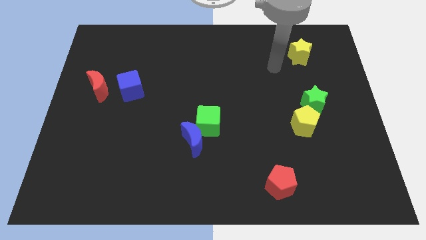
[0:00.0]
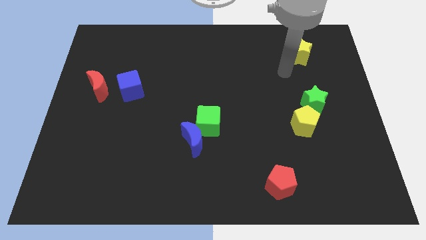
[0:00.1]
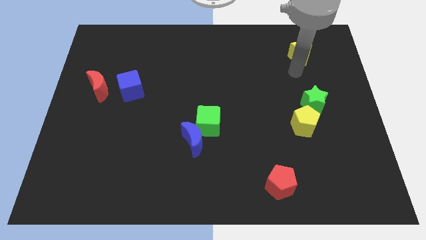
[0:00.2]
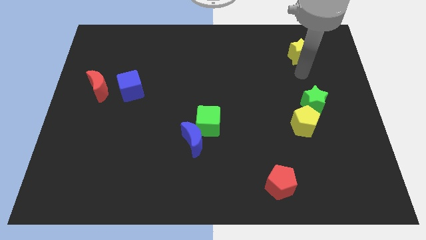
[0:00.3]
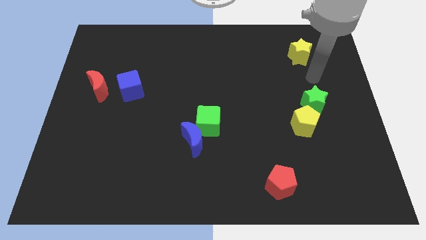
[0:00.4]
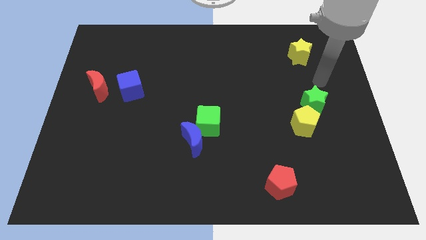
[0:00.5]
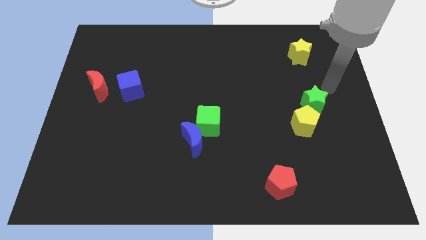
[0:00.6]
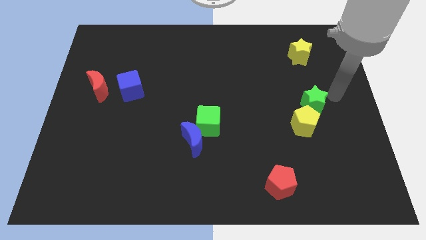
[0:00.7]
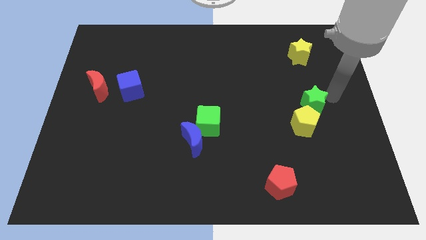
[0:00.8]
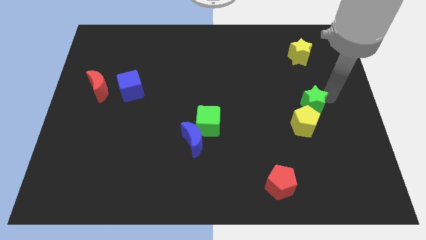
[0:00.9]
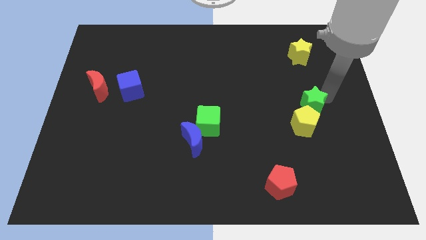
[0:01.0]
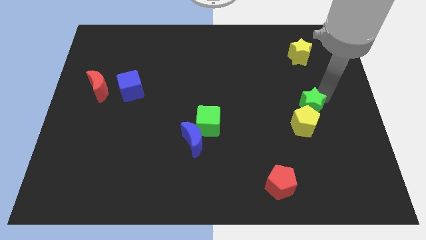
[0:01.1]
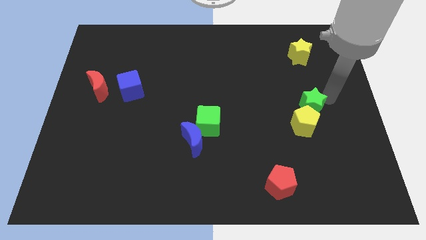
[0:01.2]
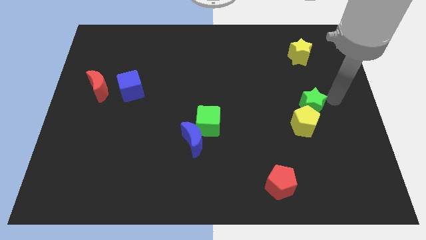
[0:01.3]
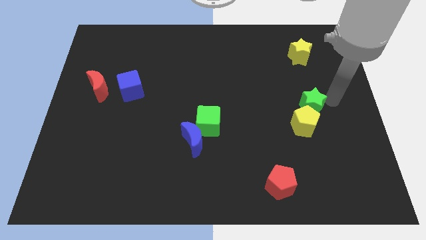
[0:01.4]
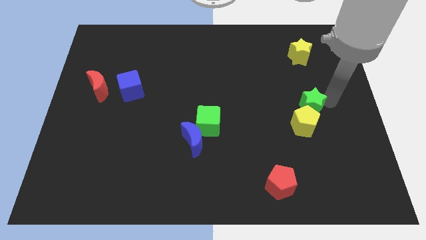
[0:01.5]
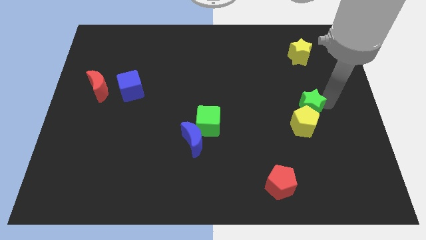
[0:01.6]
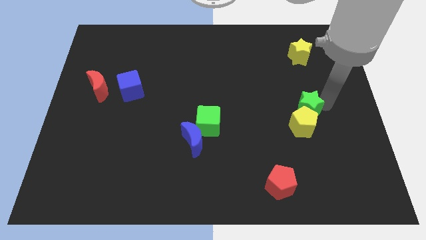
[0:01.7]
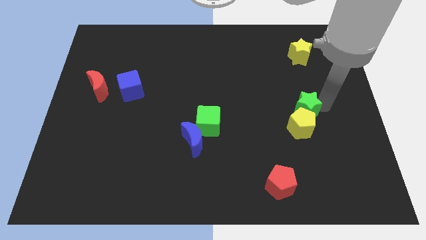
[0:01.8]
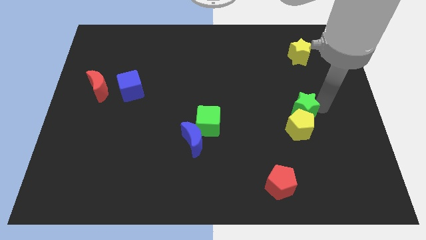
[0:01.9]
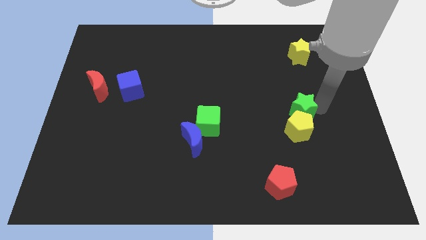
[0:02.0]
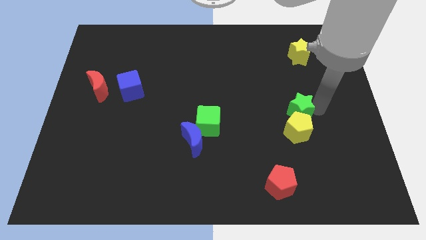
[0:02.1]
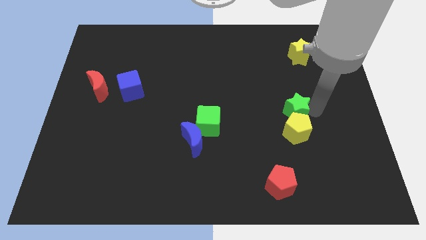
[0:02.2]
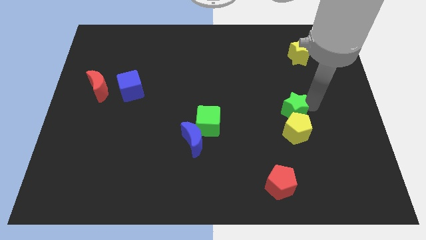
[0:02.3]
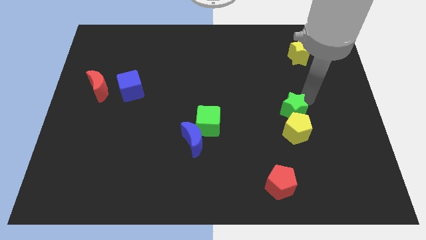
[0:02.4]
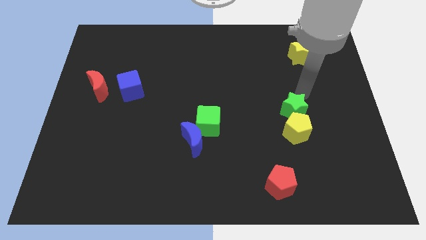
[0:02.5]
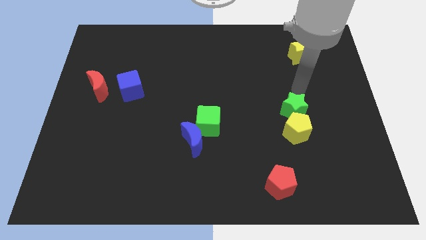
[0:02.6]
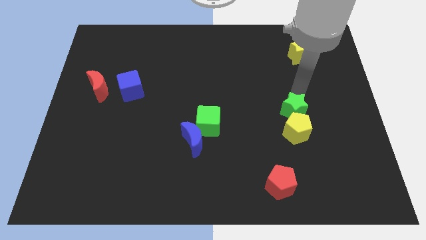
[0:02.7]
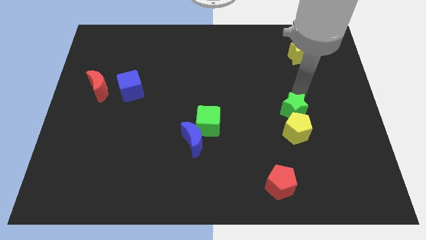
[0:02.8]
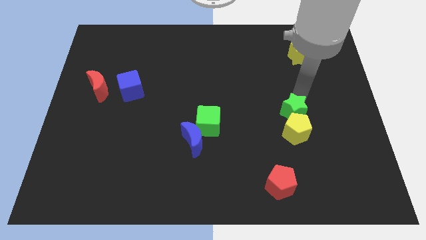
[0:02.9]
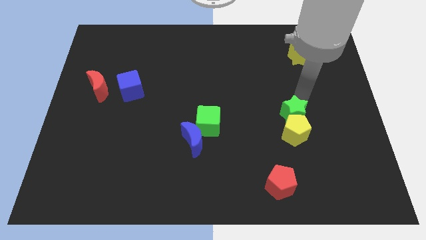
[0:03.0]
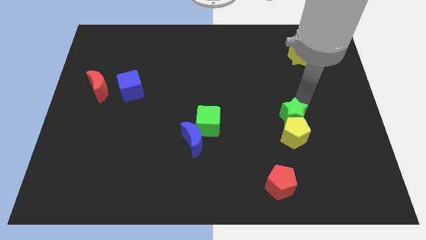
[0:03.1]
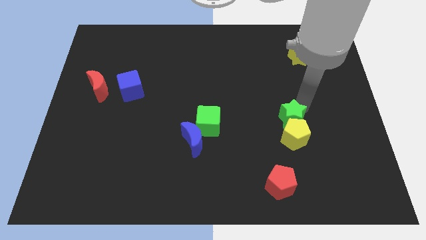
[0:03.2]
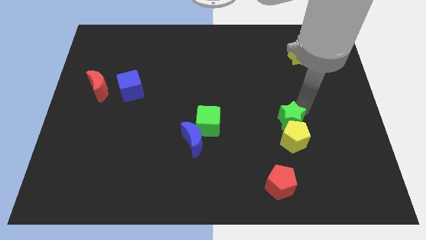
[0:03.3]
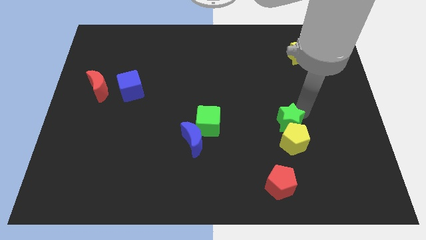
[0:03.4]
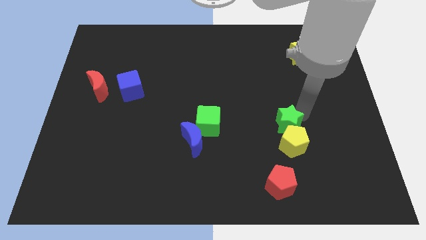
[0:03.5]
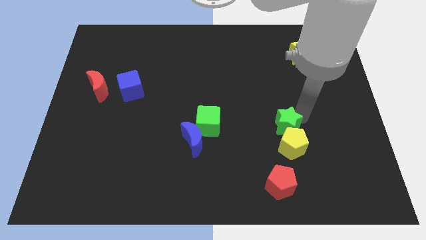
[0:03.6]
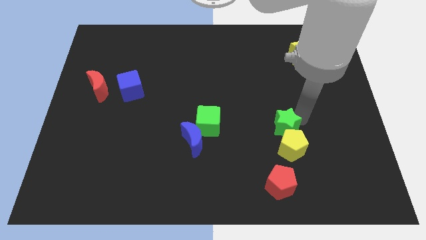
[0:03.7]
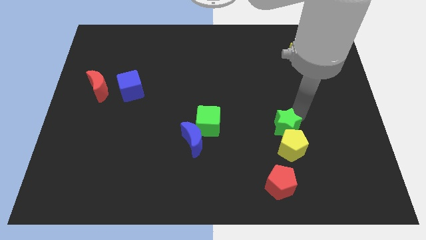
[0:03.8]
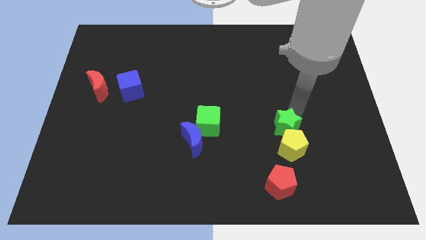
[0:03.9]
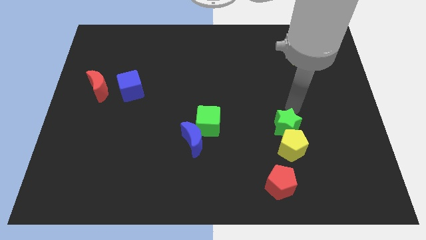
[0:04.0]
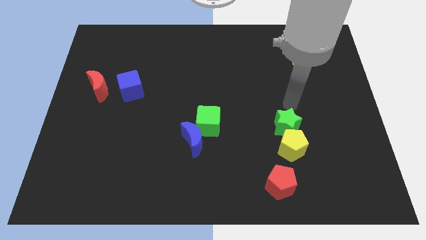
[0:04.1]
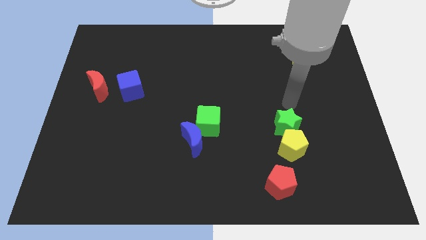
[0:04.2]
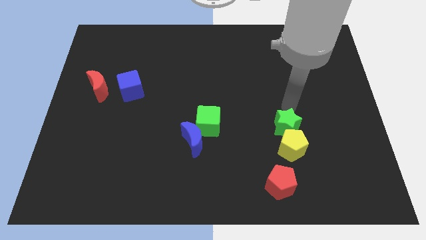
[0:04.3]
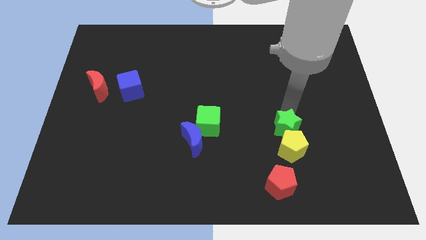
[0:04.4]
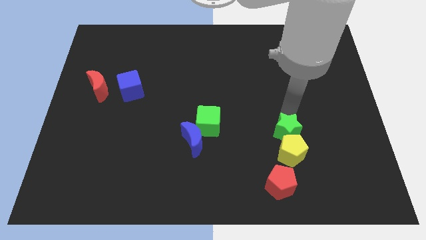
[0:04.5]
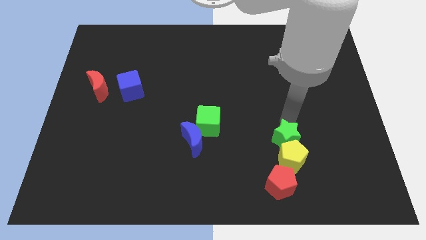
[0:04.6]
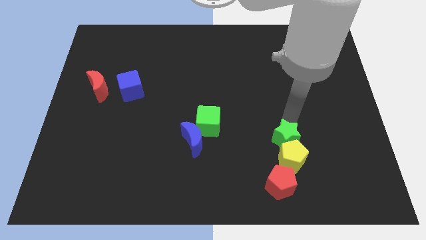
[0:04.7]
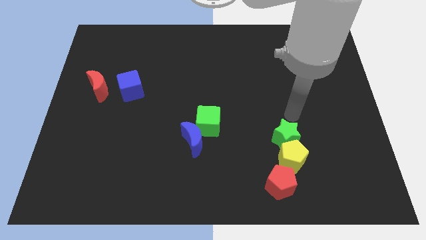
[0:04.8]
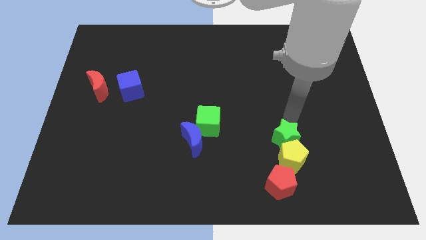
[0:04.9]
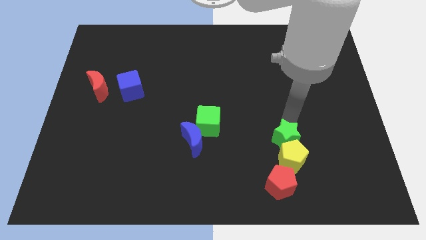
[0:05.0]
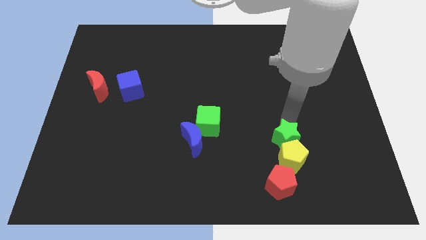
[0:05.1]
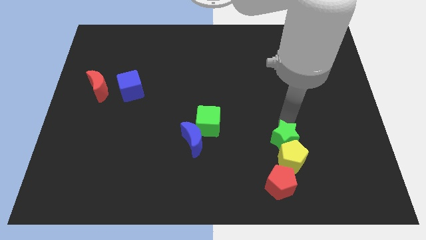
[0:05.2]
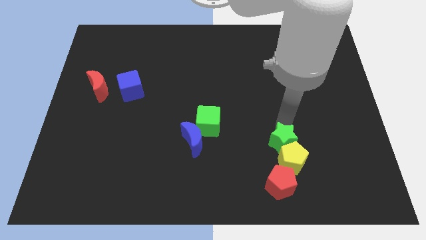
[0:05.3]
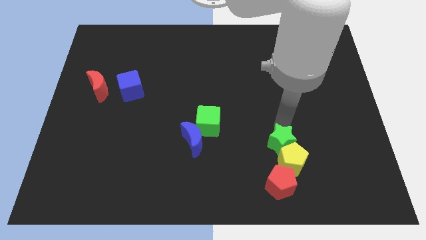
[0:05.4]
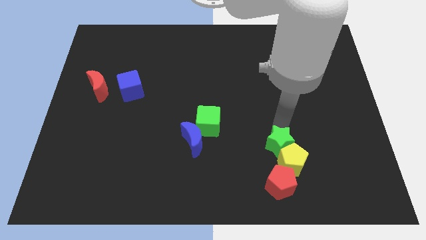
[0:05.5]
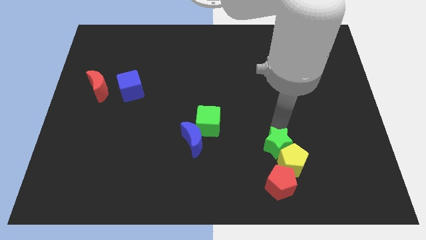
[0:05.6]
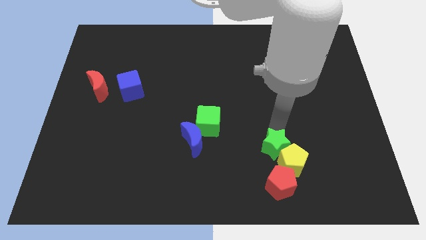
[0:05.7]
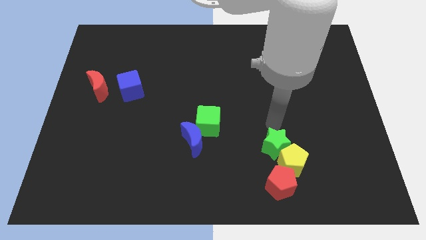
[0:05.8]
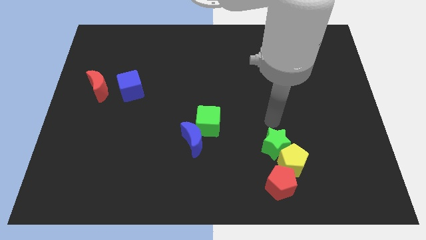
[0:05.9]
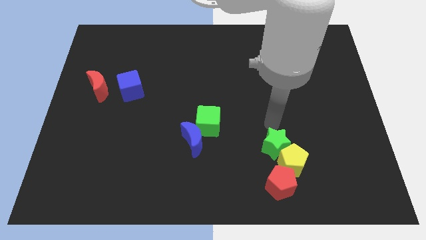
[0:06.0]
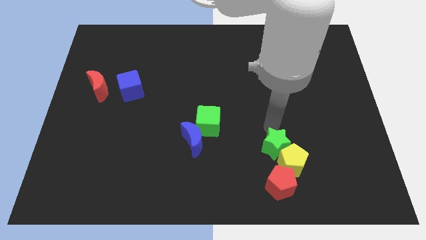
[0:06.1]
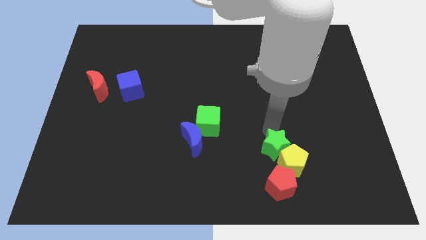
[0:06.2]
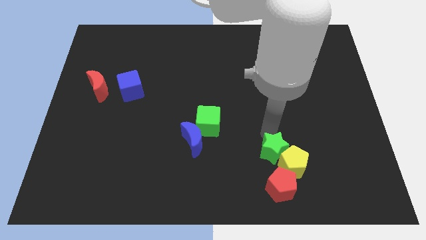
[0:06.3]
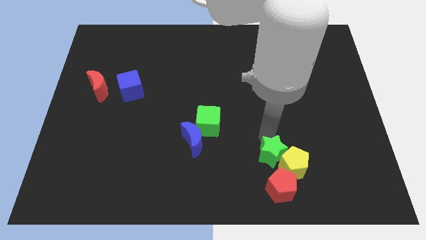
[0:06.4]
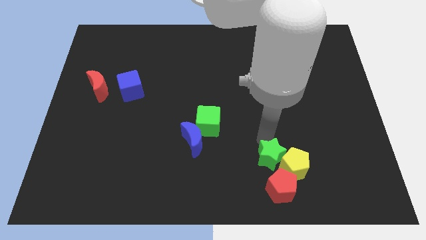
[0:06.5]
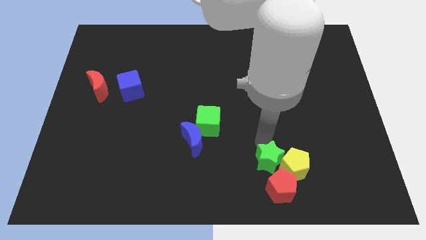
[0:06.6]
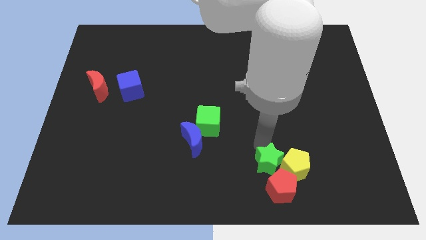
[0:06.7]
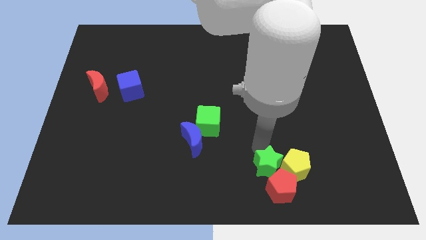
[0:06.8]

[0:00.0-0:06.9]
push the green star towards the red pentagon
